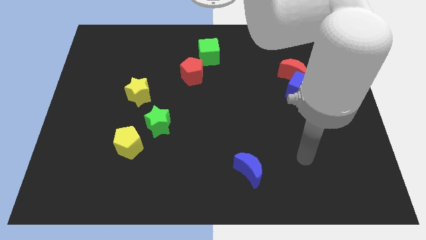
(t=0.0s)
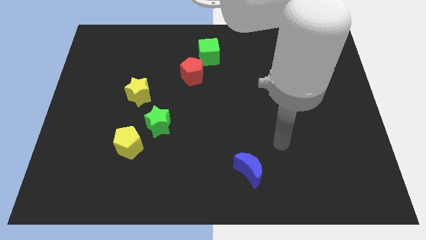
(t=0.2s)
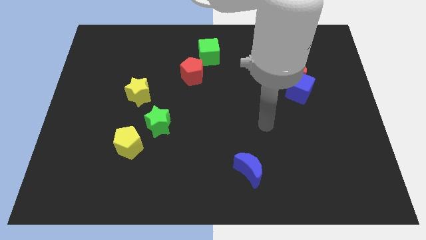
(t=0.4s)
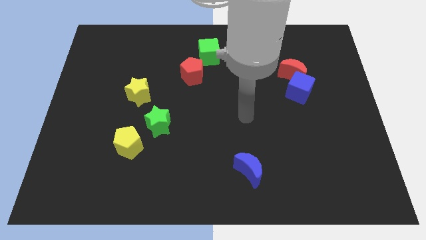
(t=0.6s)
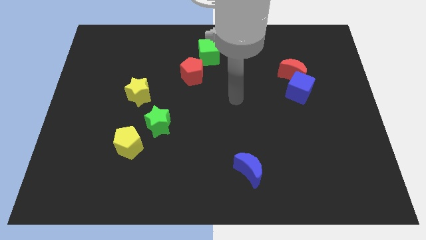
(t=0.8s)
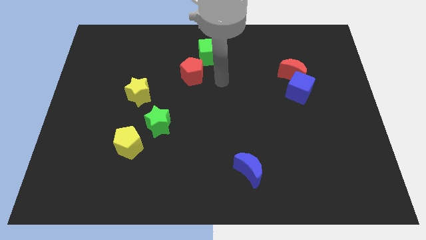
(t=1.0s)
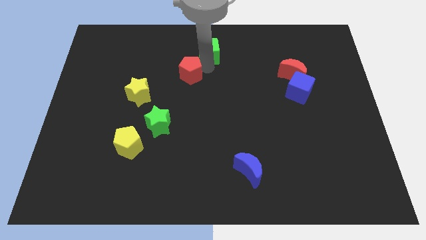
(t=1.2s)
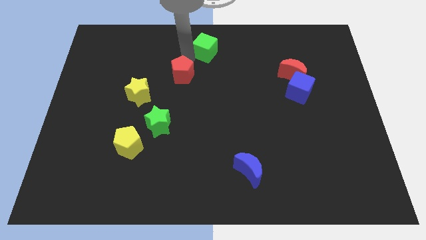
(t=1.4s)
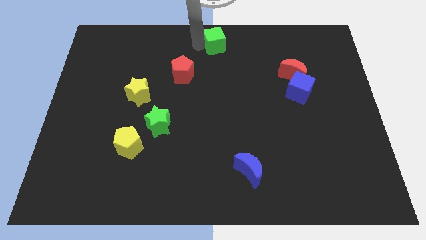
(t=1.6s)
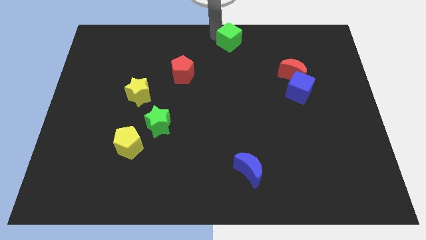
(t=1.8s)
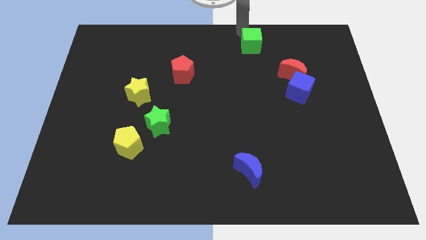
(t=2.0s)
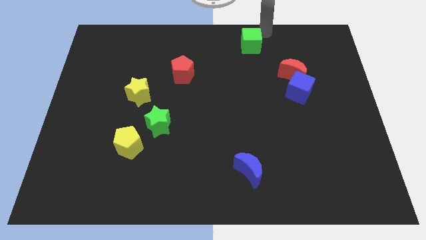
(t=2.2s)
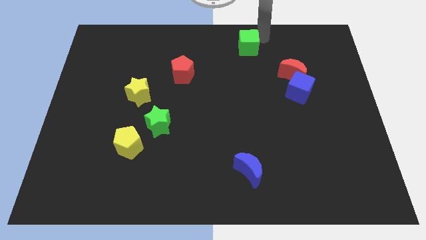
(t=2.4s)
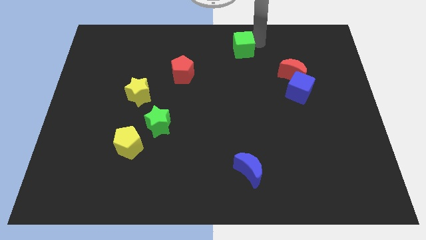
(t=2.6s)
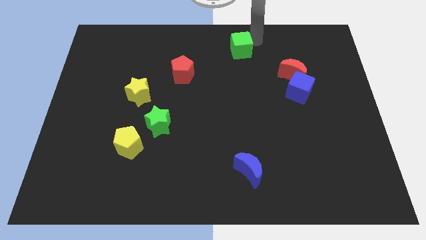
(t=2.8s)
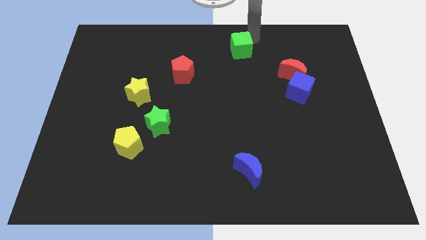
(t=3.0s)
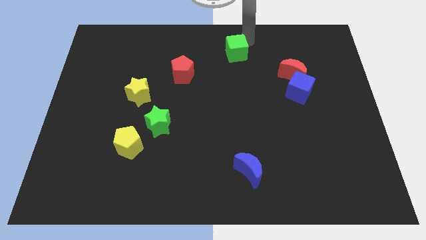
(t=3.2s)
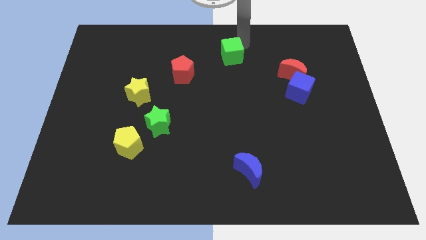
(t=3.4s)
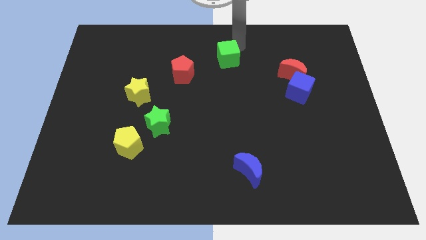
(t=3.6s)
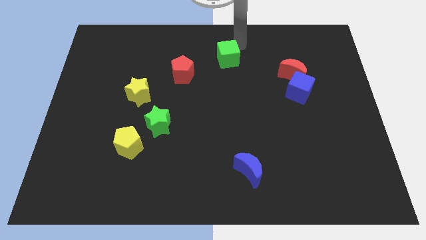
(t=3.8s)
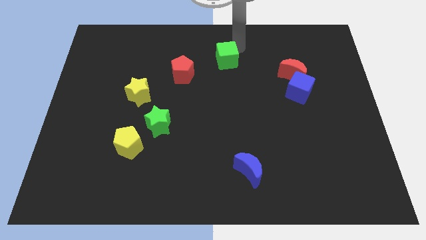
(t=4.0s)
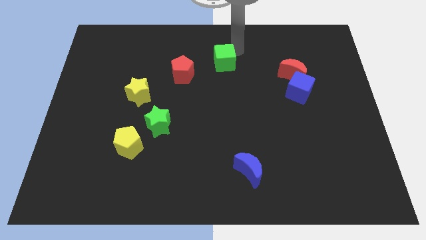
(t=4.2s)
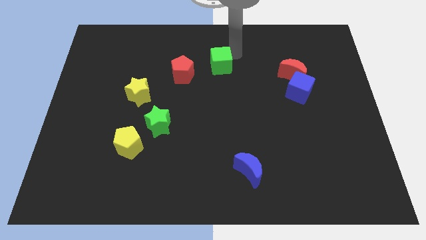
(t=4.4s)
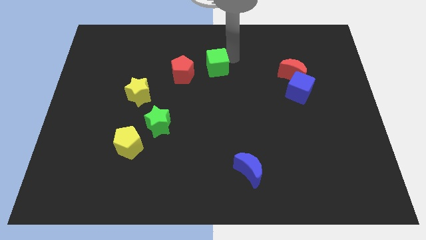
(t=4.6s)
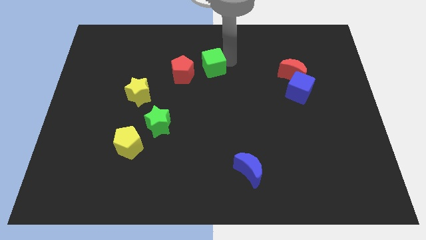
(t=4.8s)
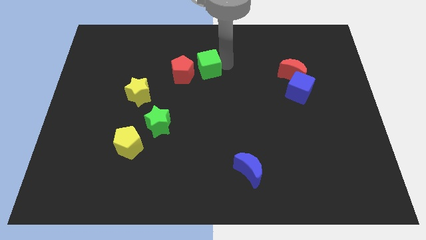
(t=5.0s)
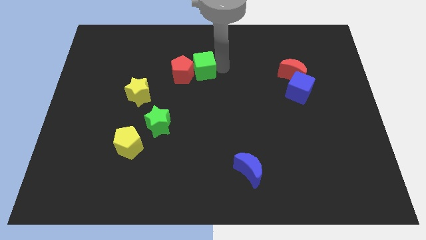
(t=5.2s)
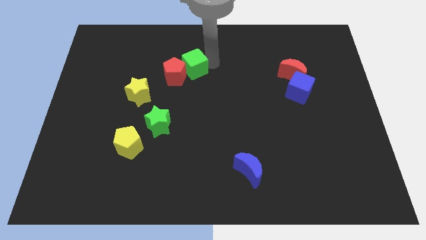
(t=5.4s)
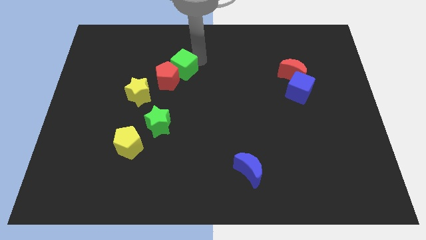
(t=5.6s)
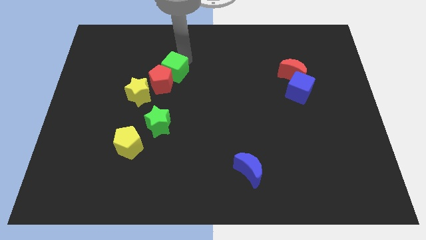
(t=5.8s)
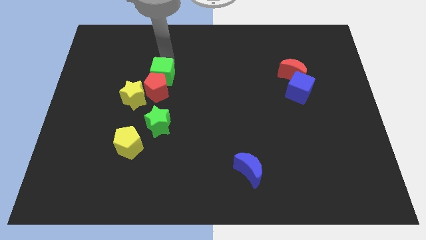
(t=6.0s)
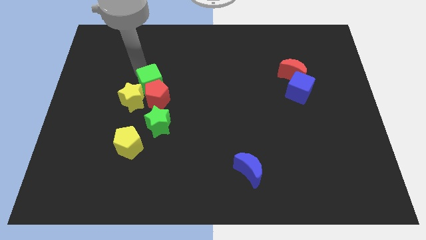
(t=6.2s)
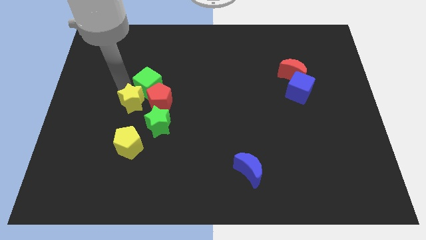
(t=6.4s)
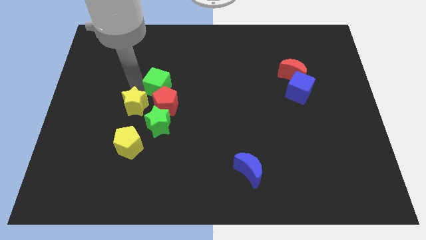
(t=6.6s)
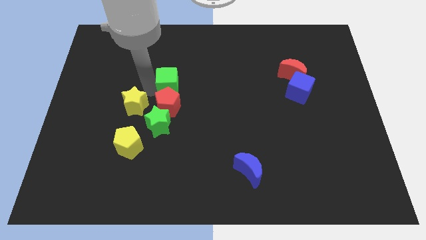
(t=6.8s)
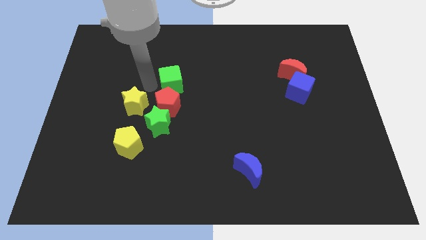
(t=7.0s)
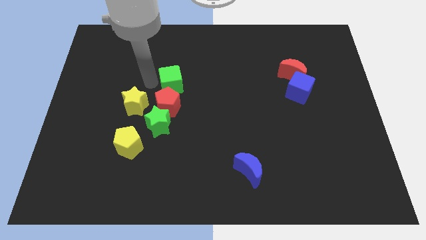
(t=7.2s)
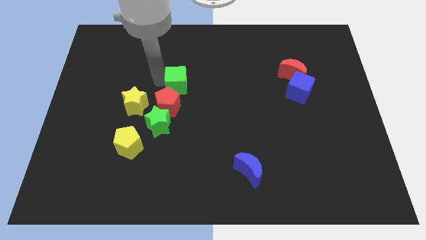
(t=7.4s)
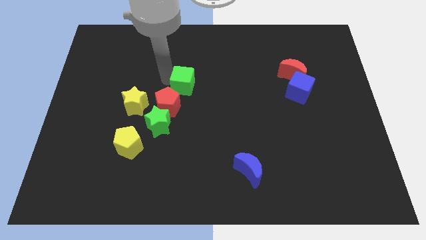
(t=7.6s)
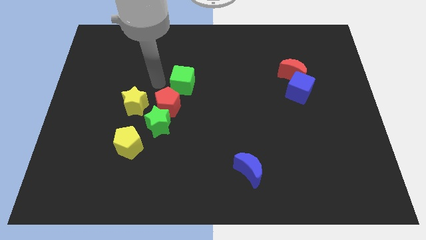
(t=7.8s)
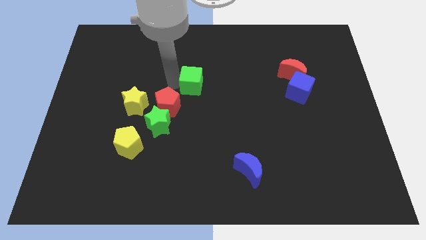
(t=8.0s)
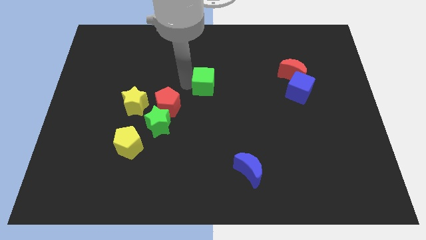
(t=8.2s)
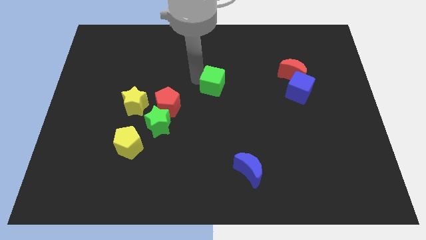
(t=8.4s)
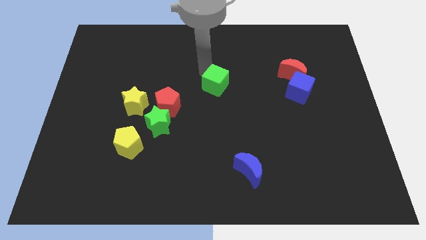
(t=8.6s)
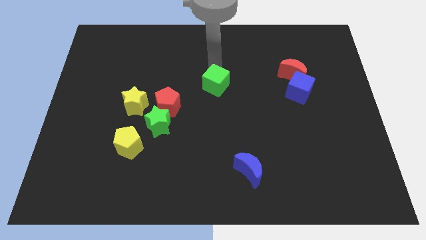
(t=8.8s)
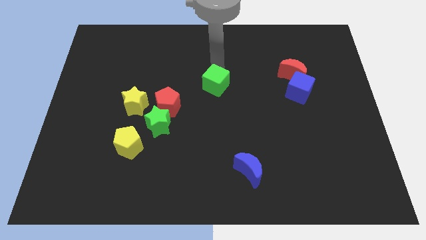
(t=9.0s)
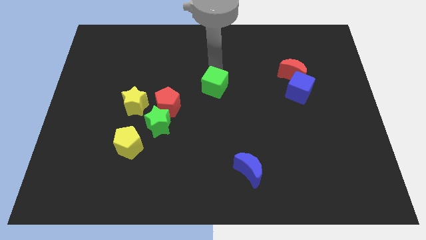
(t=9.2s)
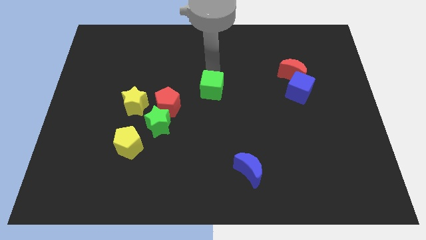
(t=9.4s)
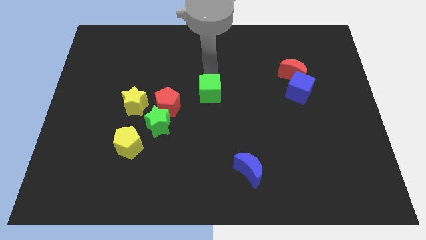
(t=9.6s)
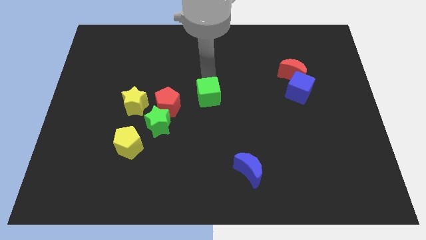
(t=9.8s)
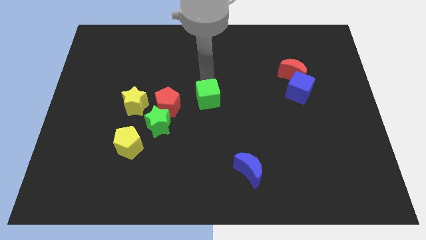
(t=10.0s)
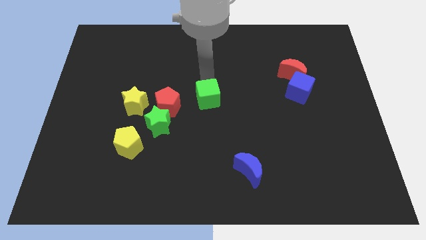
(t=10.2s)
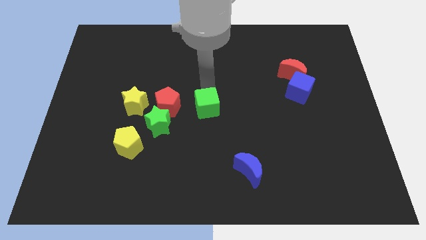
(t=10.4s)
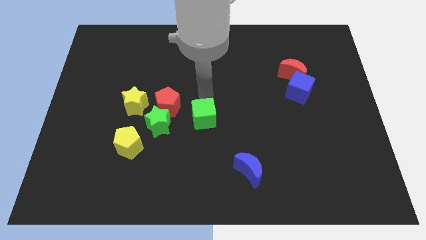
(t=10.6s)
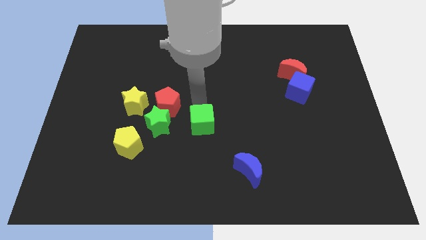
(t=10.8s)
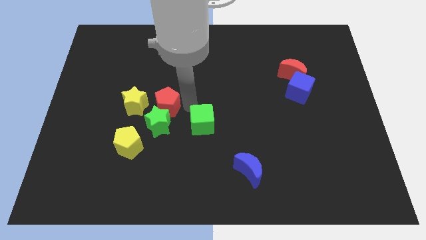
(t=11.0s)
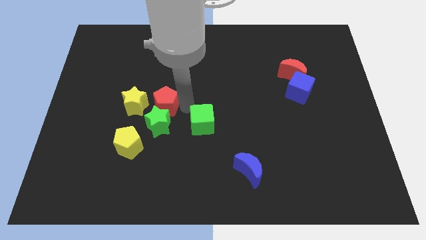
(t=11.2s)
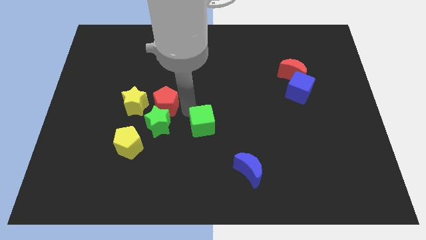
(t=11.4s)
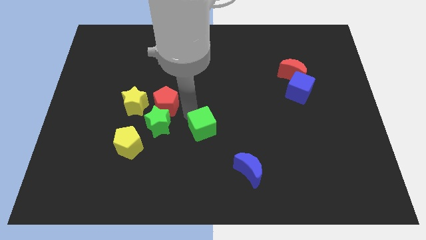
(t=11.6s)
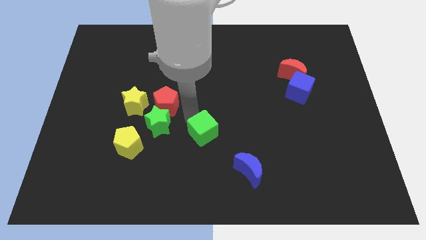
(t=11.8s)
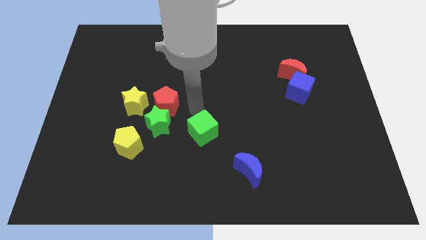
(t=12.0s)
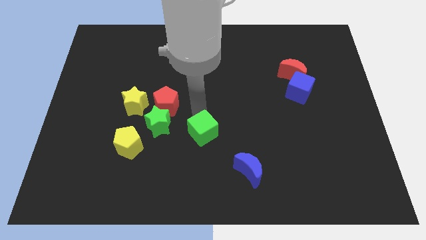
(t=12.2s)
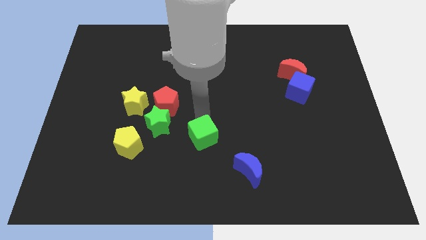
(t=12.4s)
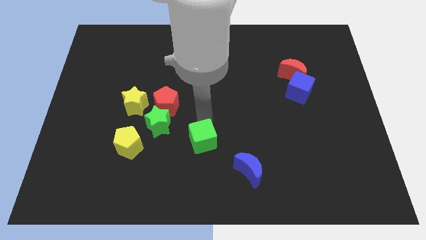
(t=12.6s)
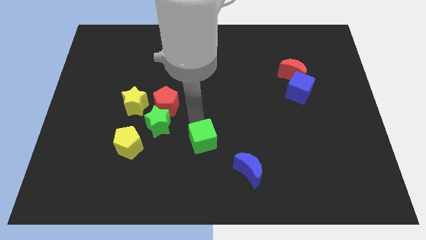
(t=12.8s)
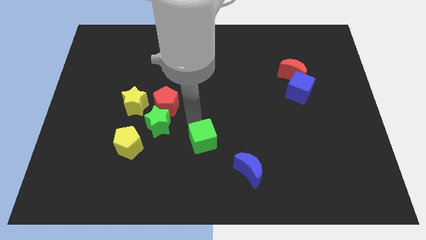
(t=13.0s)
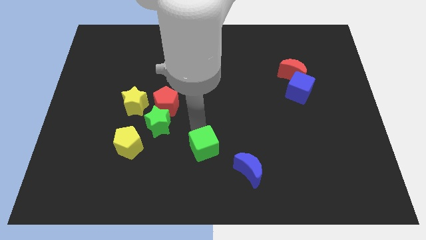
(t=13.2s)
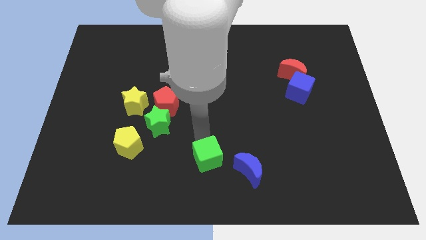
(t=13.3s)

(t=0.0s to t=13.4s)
move the green cube to the bottom side
